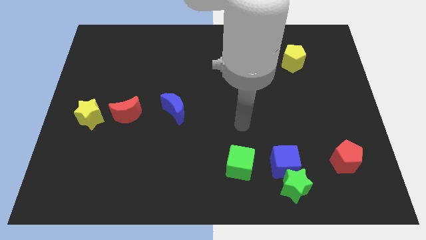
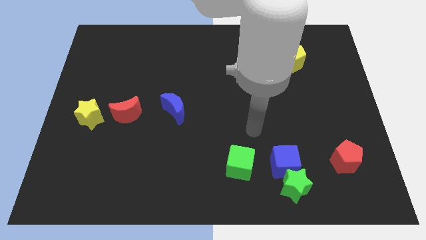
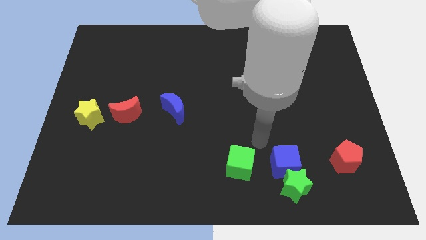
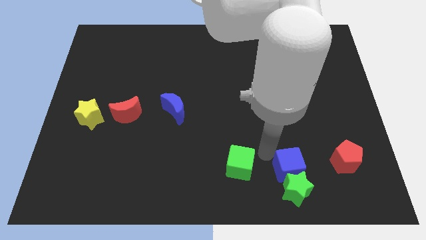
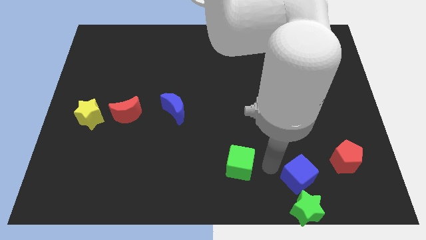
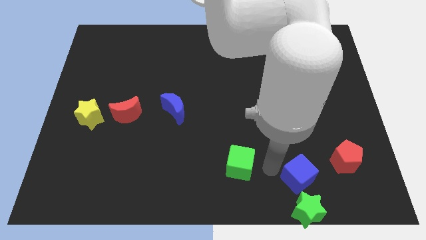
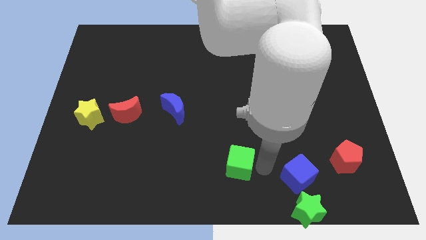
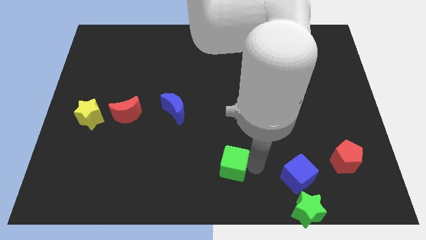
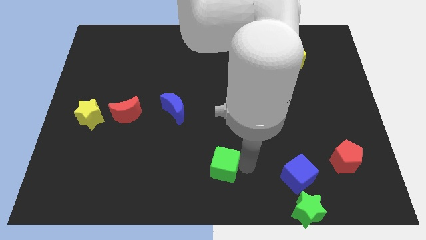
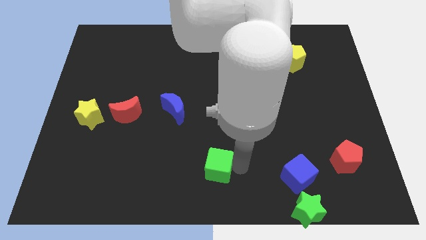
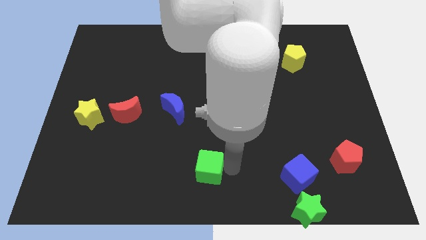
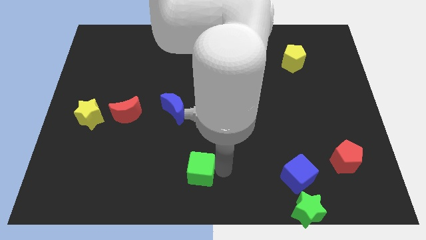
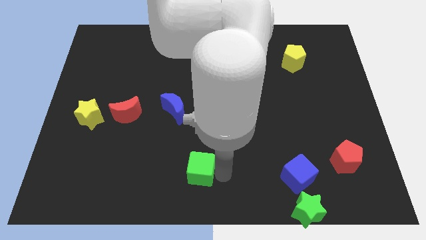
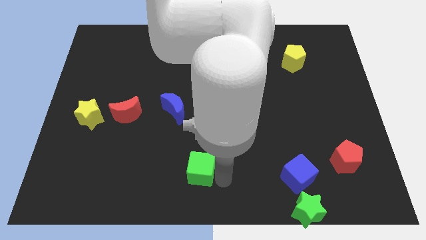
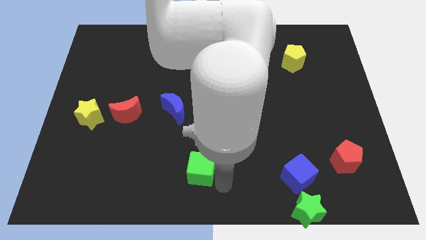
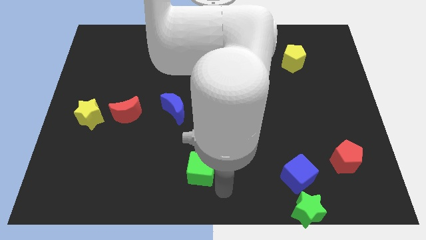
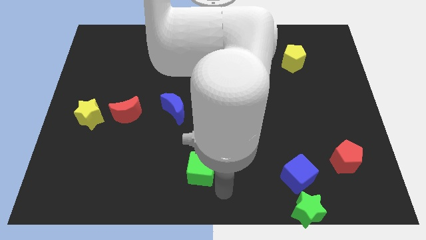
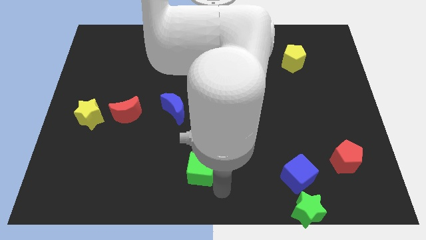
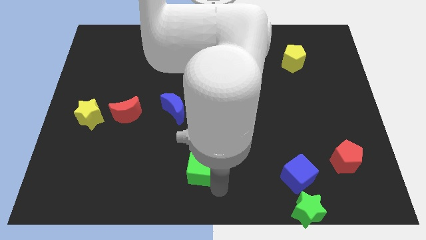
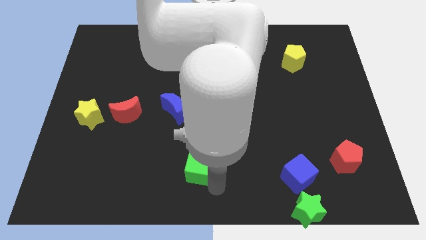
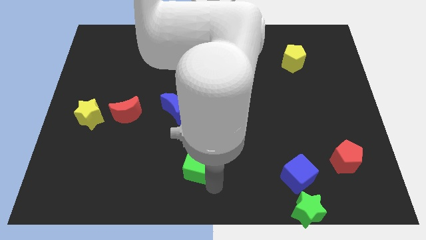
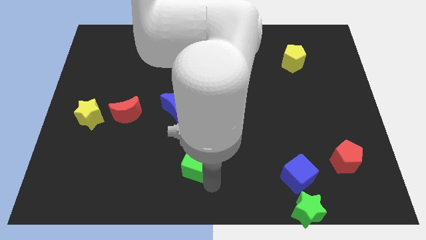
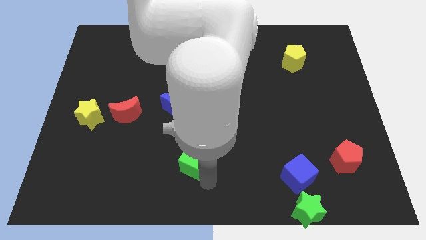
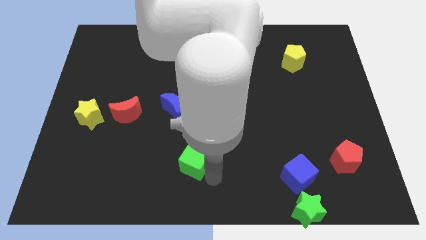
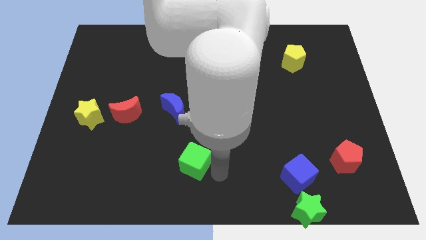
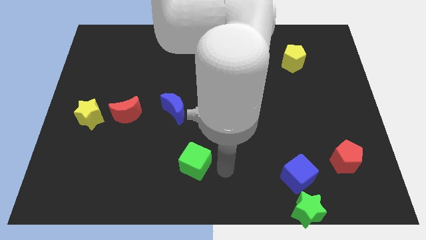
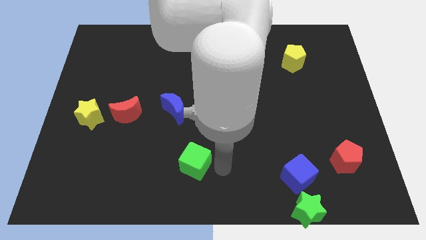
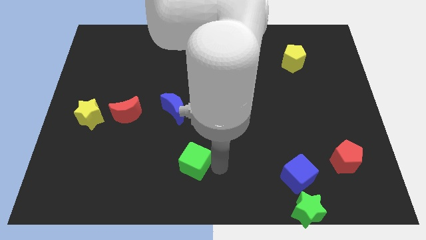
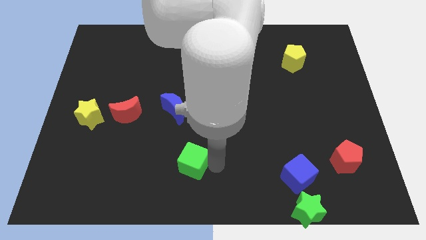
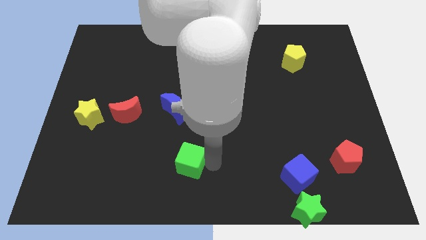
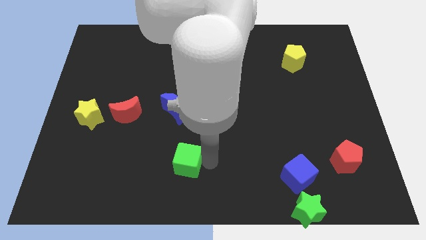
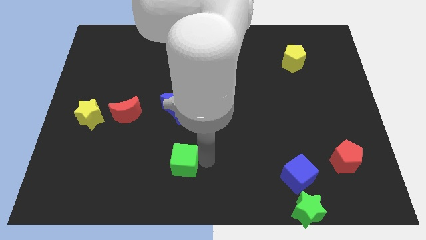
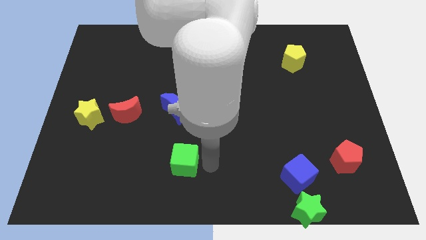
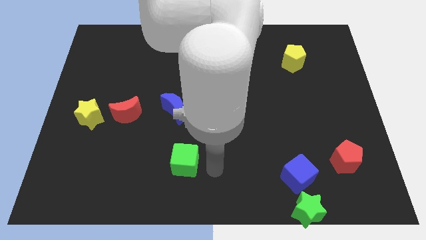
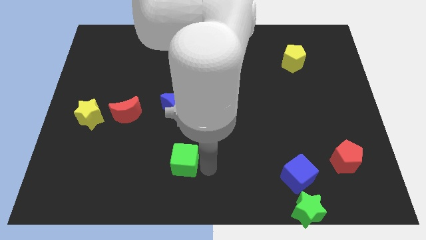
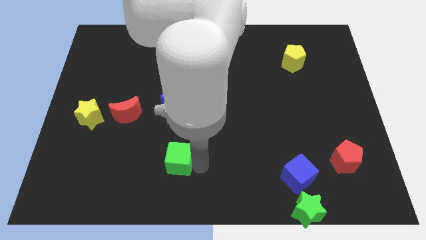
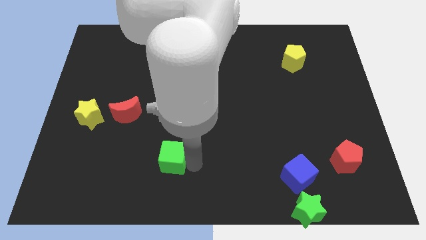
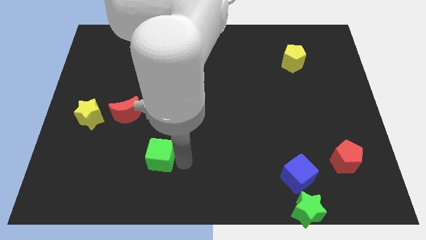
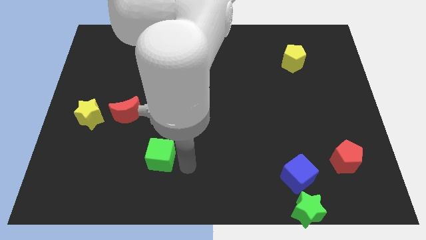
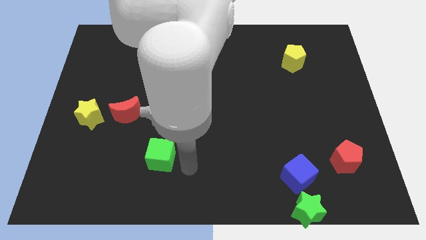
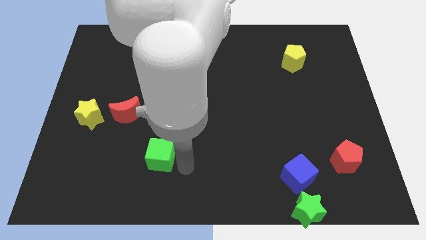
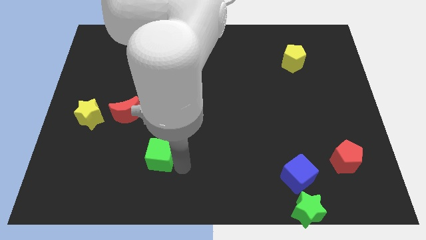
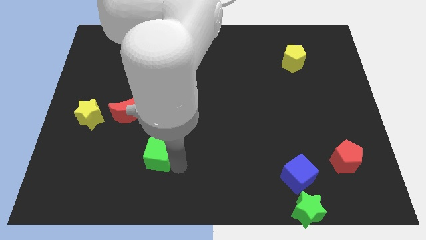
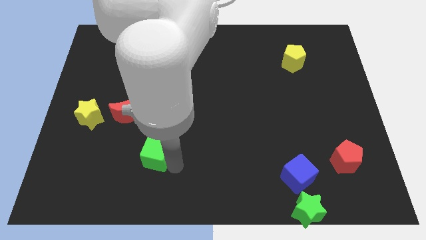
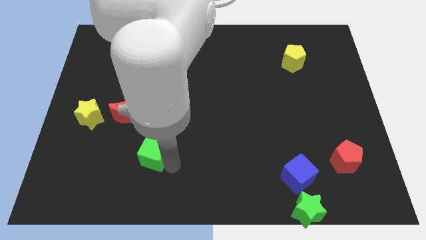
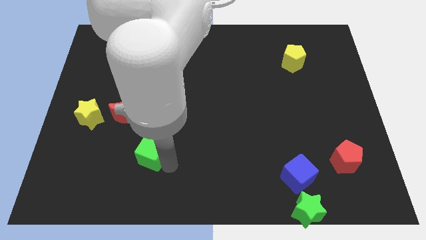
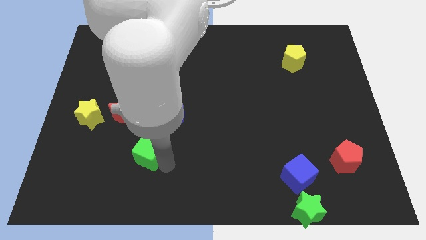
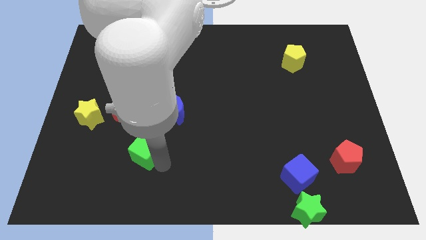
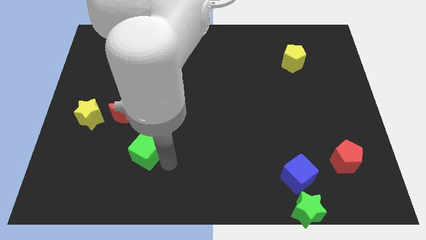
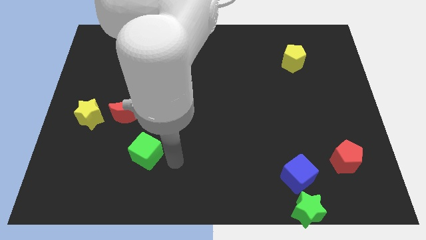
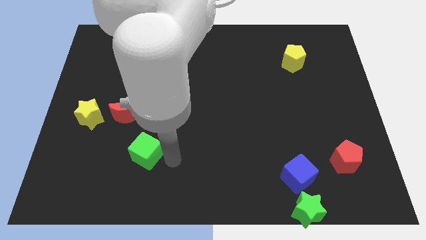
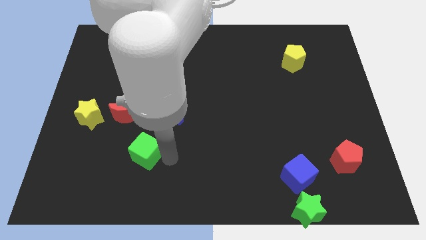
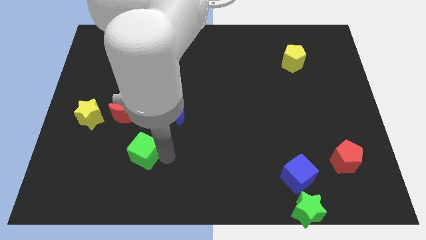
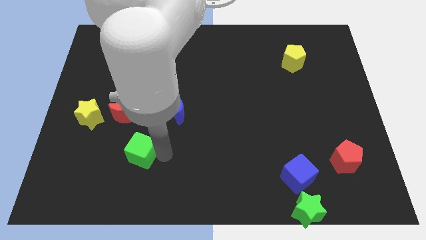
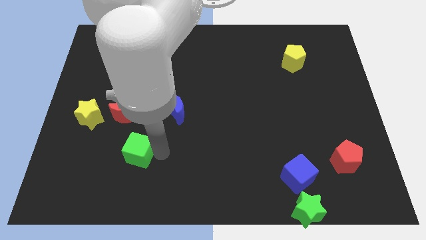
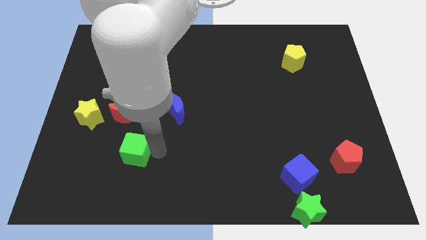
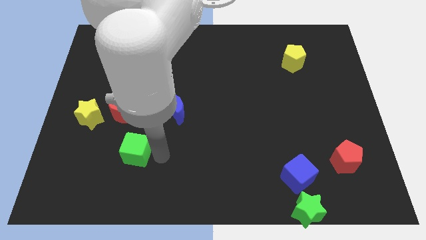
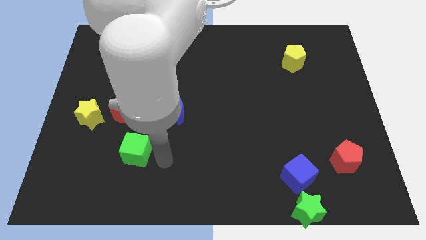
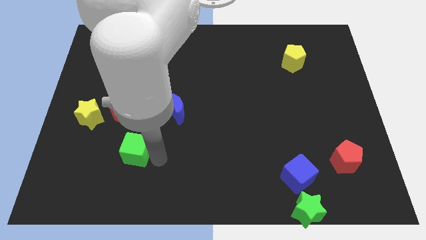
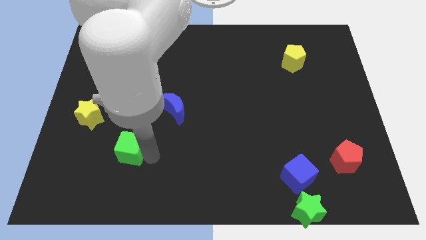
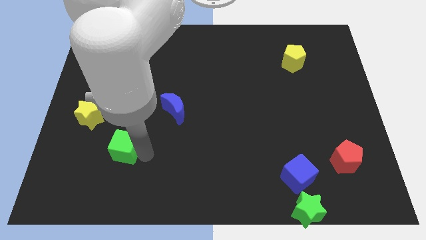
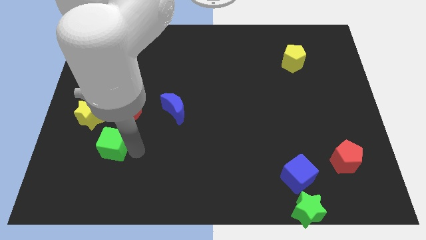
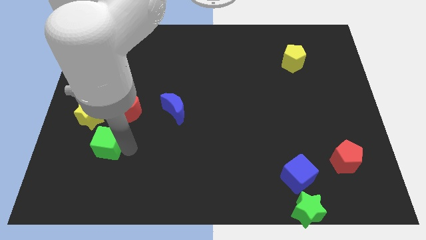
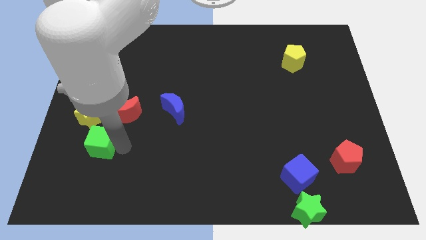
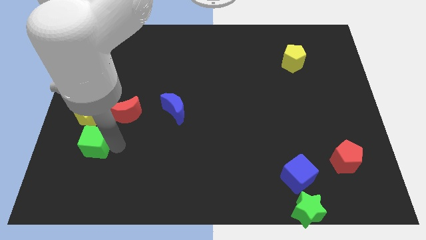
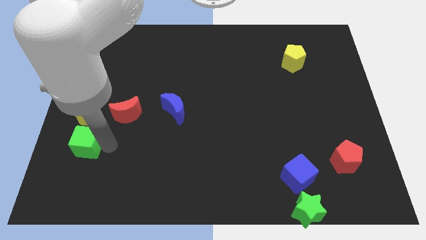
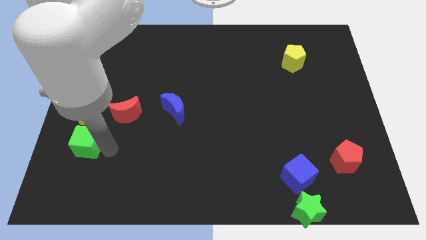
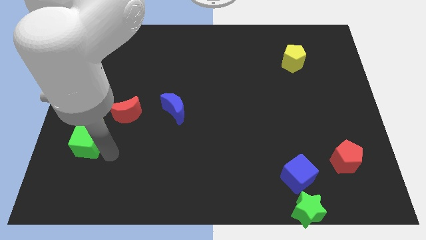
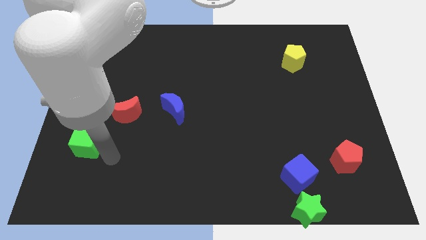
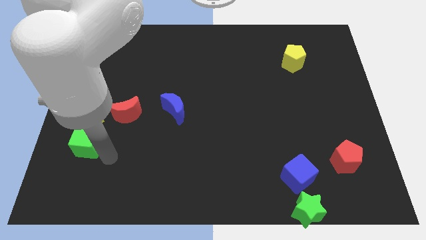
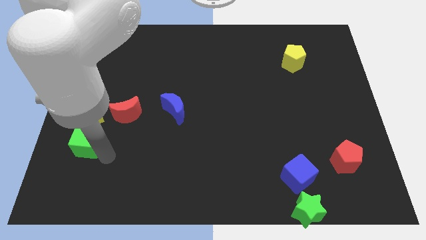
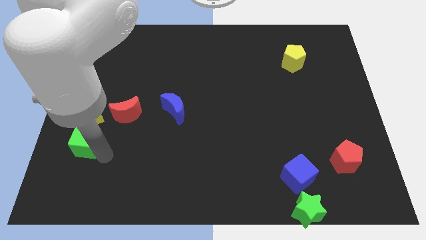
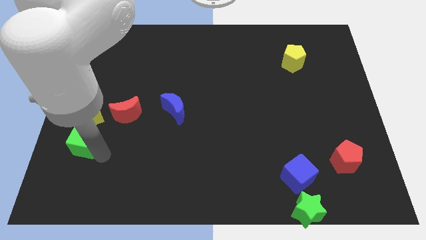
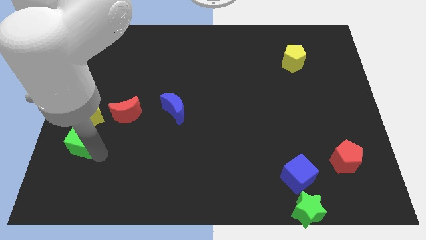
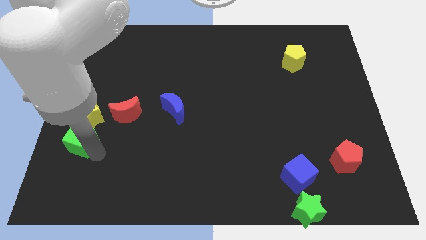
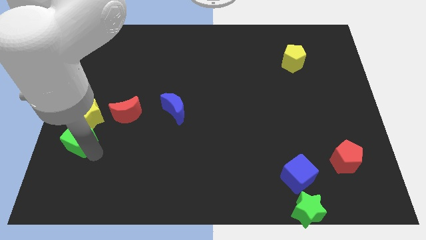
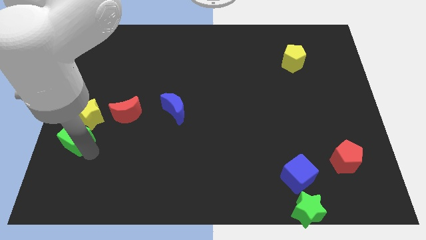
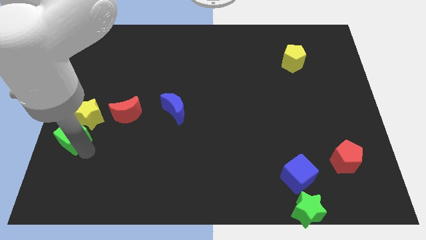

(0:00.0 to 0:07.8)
put the green cube to the center left
